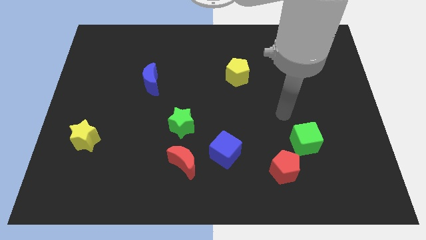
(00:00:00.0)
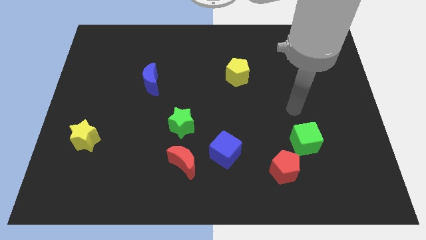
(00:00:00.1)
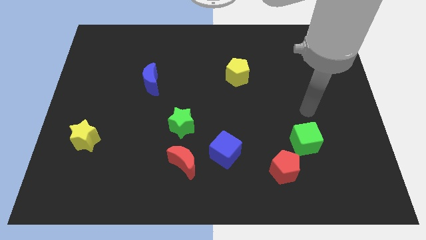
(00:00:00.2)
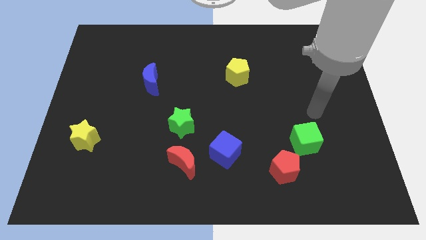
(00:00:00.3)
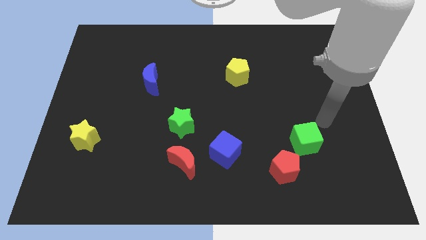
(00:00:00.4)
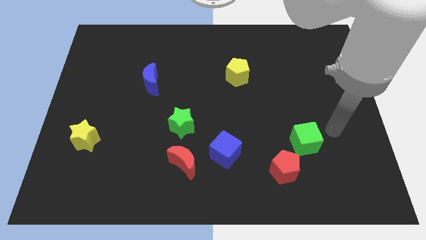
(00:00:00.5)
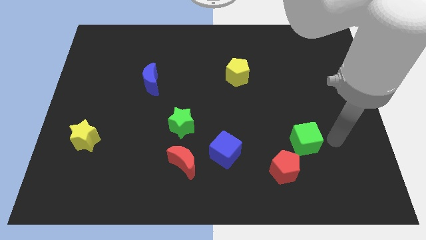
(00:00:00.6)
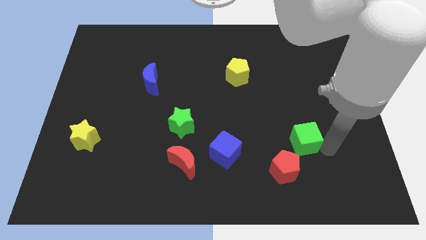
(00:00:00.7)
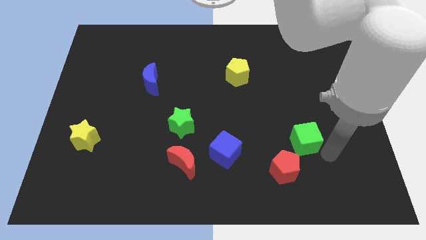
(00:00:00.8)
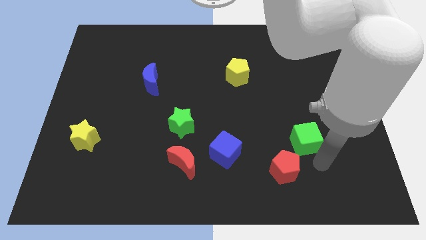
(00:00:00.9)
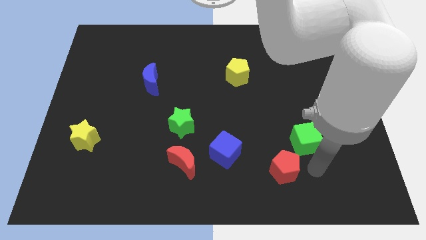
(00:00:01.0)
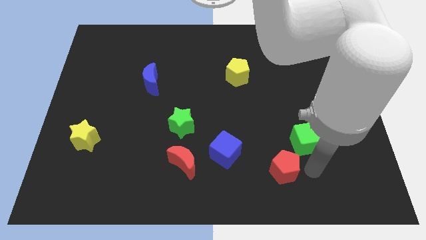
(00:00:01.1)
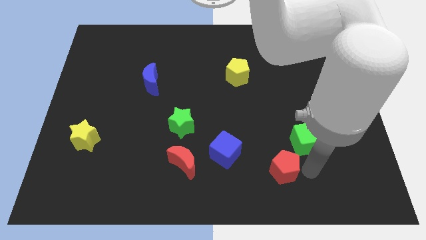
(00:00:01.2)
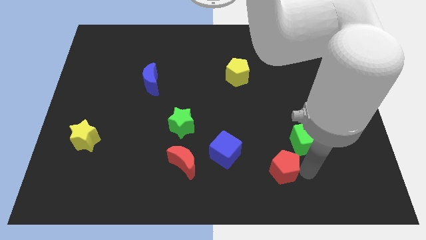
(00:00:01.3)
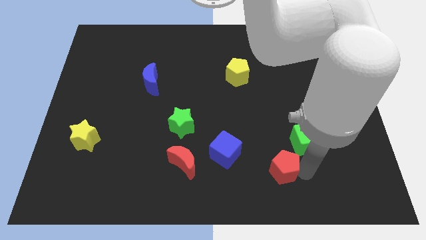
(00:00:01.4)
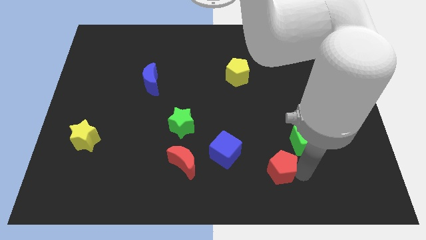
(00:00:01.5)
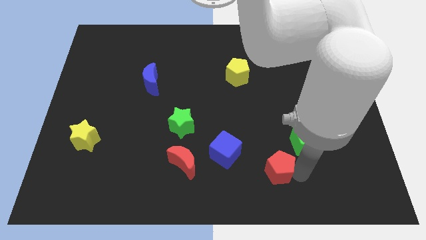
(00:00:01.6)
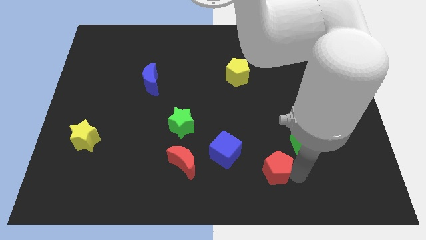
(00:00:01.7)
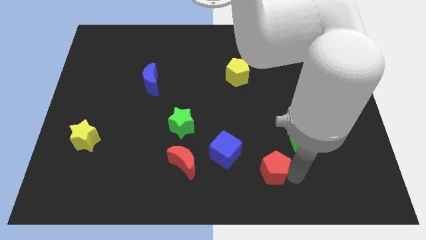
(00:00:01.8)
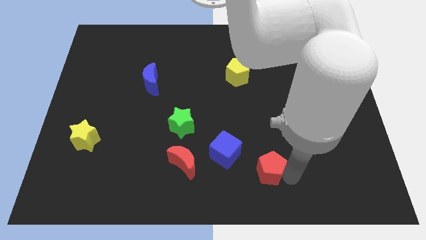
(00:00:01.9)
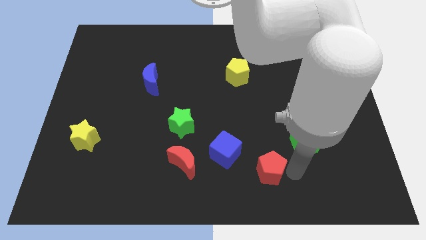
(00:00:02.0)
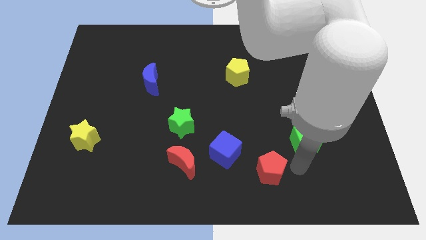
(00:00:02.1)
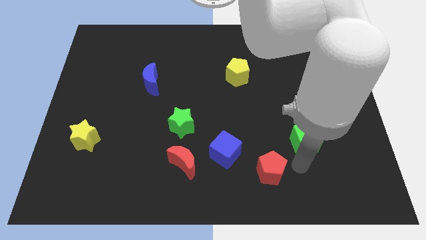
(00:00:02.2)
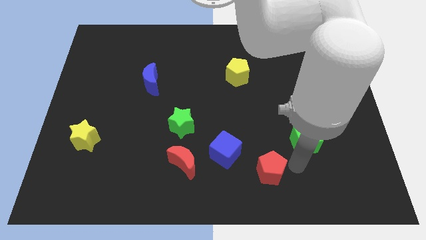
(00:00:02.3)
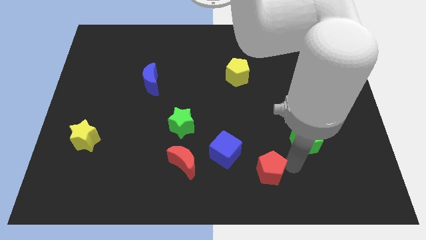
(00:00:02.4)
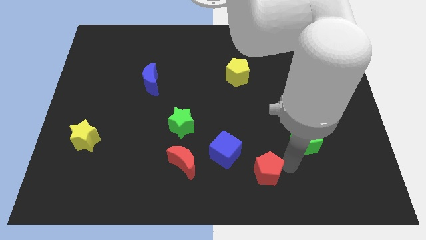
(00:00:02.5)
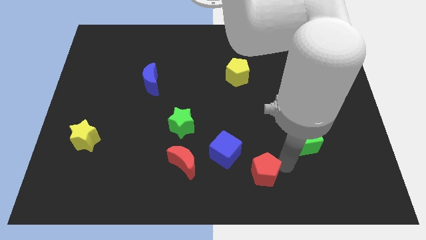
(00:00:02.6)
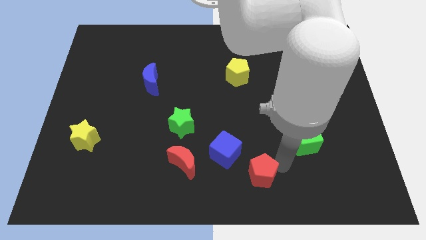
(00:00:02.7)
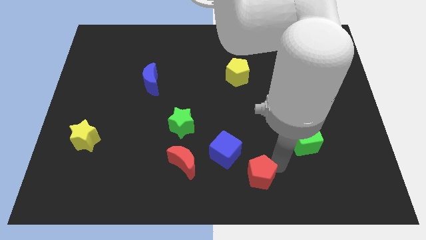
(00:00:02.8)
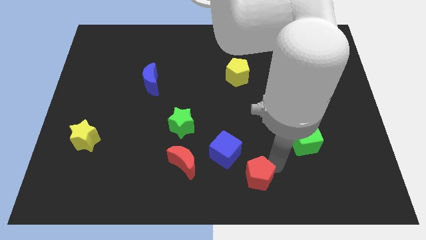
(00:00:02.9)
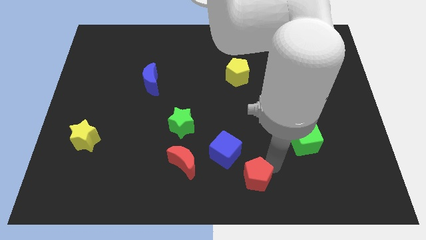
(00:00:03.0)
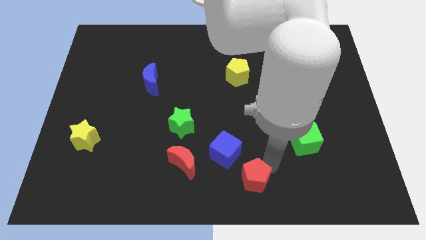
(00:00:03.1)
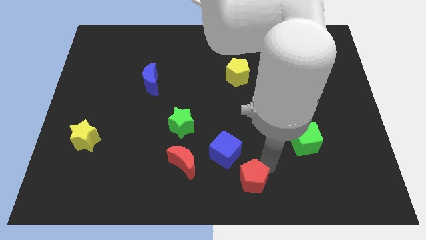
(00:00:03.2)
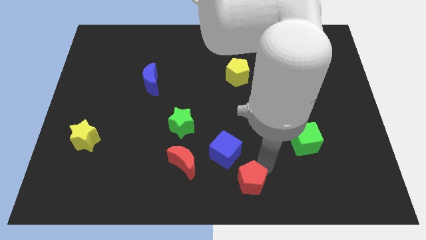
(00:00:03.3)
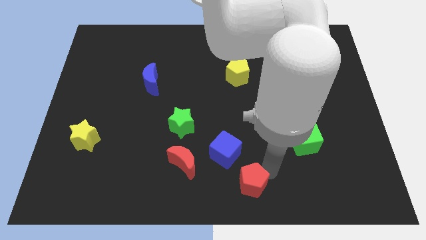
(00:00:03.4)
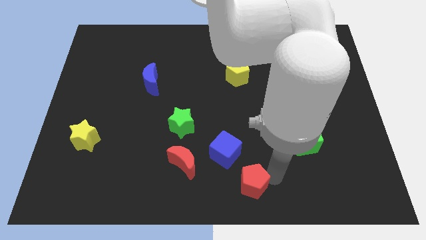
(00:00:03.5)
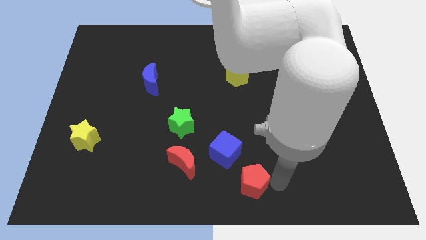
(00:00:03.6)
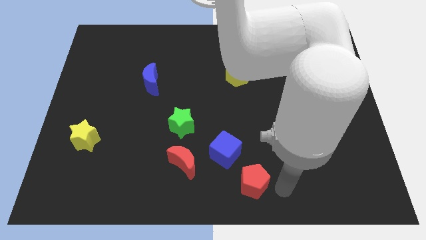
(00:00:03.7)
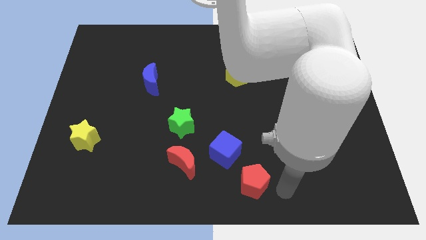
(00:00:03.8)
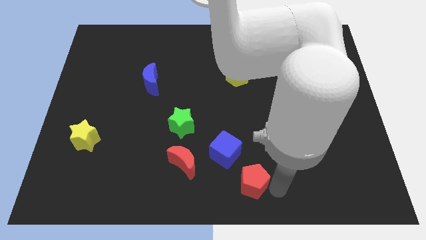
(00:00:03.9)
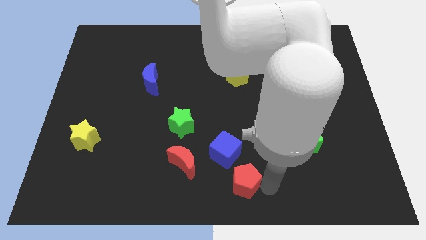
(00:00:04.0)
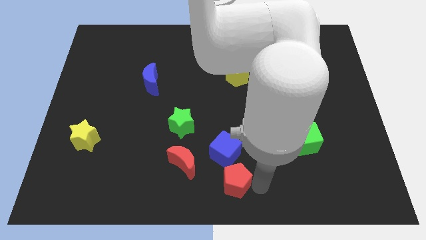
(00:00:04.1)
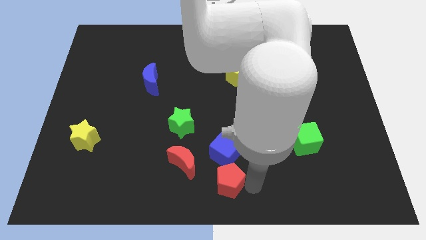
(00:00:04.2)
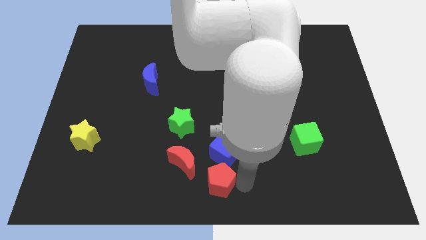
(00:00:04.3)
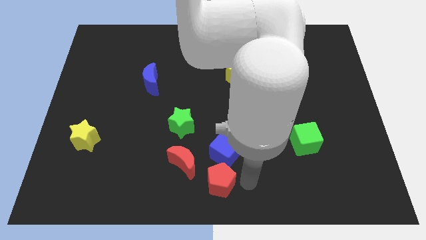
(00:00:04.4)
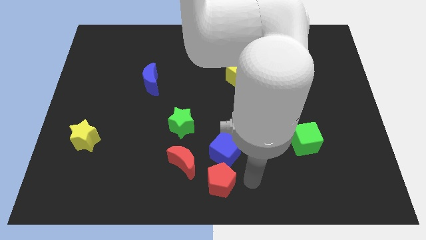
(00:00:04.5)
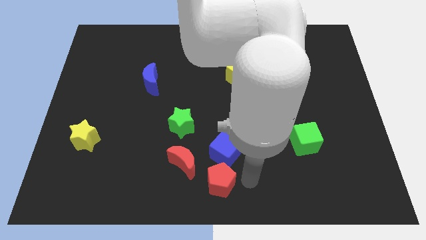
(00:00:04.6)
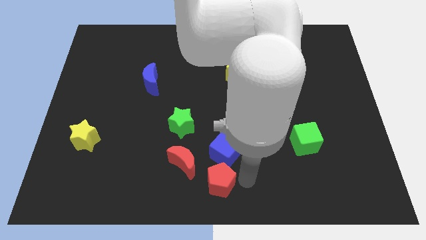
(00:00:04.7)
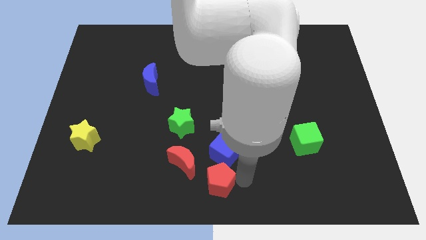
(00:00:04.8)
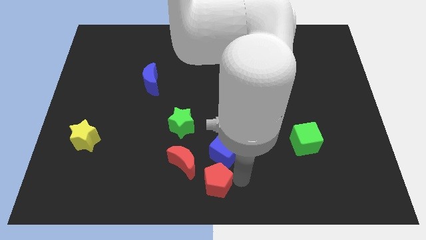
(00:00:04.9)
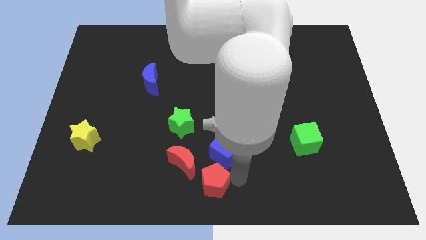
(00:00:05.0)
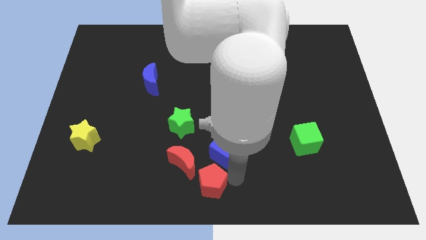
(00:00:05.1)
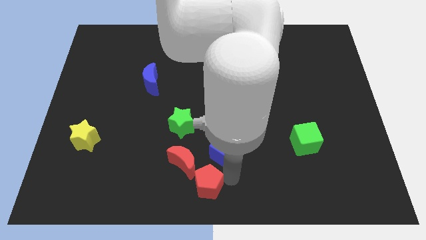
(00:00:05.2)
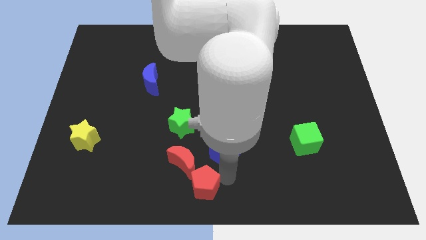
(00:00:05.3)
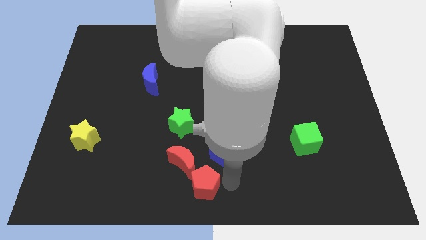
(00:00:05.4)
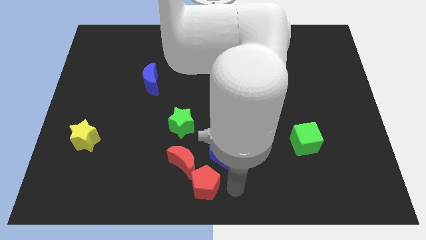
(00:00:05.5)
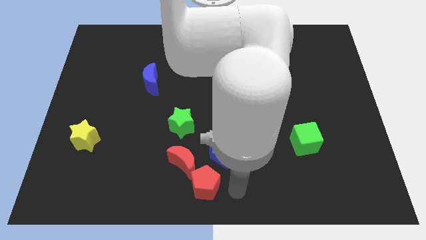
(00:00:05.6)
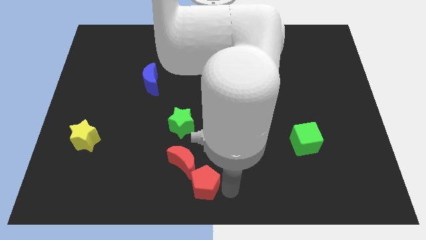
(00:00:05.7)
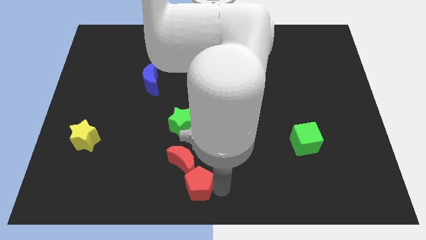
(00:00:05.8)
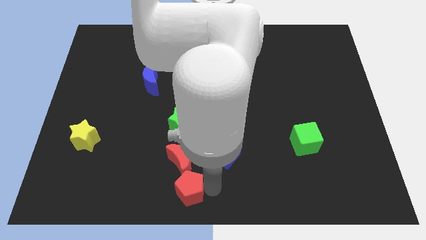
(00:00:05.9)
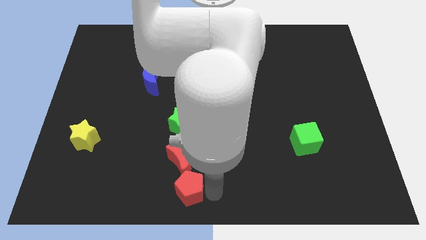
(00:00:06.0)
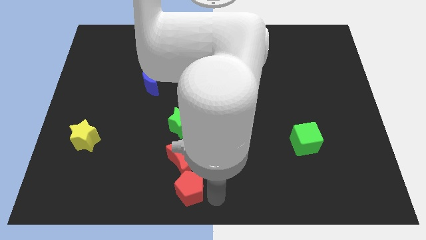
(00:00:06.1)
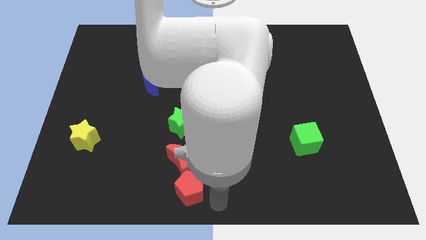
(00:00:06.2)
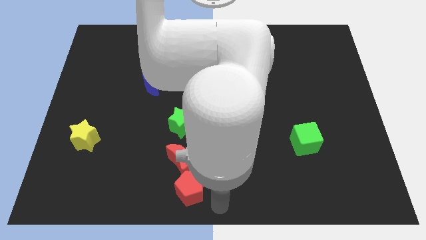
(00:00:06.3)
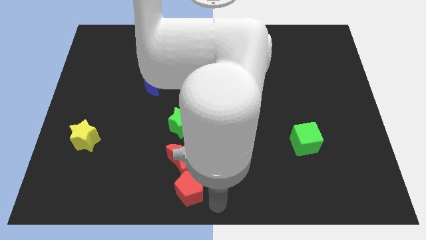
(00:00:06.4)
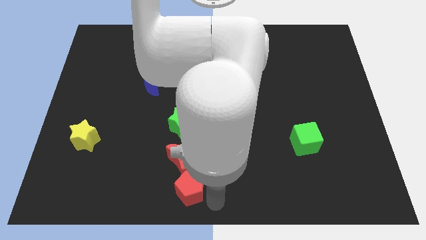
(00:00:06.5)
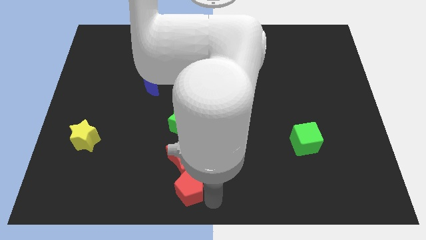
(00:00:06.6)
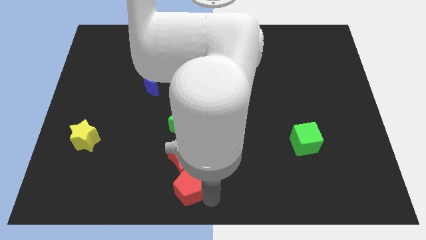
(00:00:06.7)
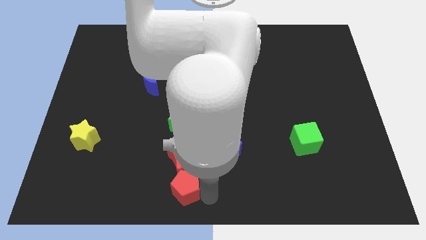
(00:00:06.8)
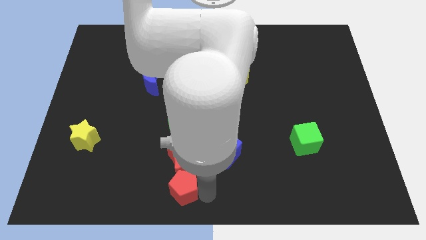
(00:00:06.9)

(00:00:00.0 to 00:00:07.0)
push the red pentagon left

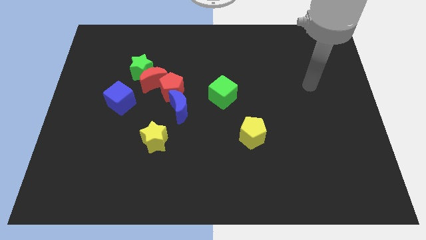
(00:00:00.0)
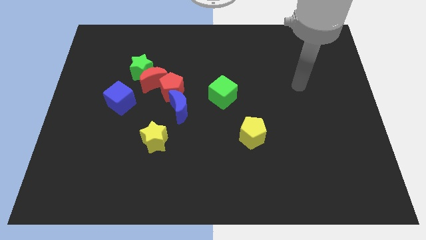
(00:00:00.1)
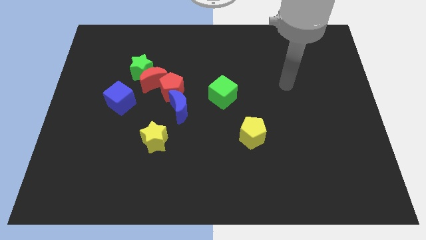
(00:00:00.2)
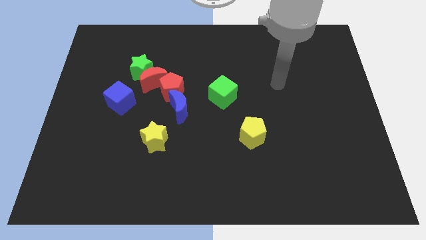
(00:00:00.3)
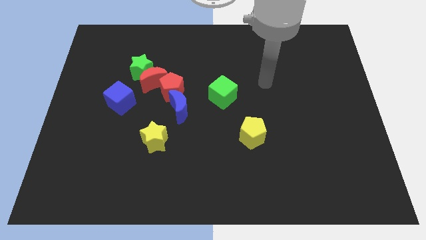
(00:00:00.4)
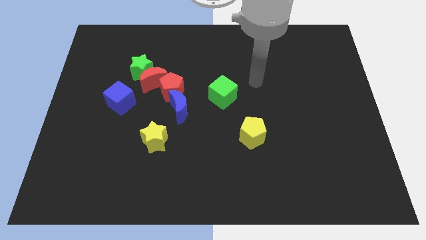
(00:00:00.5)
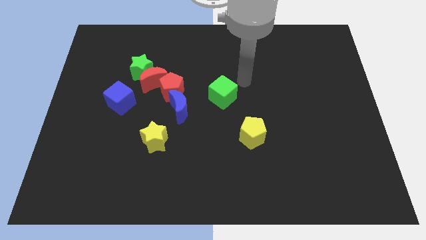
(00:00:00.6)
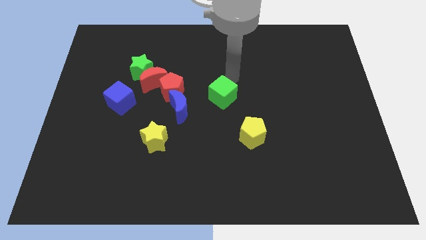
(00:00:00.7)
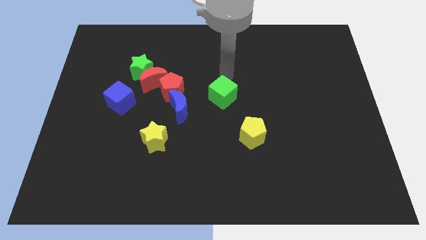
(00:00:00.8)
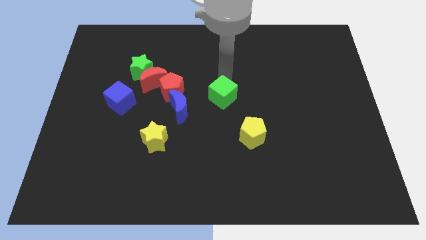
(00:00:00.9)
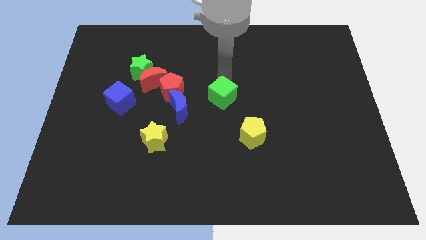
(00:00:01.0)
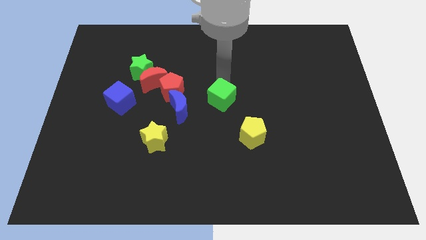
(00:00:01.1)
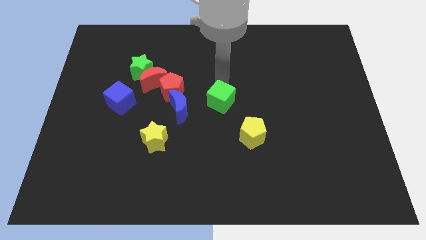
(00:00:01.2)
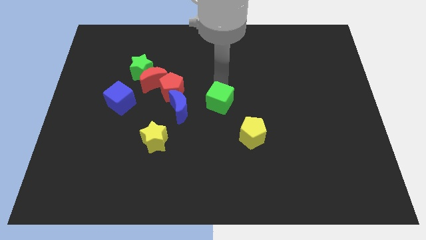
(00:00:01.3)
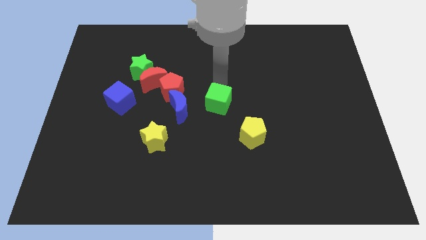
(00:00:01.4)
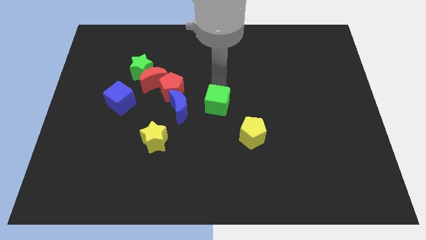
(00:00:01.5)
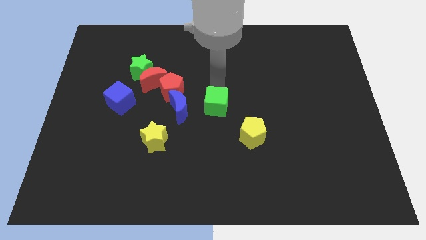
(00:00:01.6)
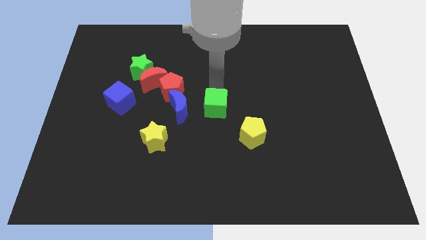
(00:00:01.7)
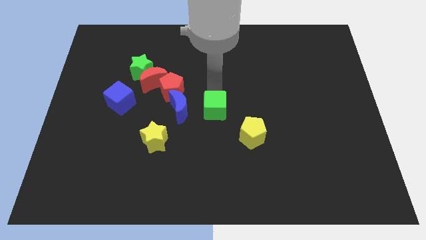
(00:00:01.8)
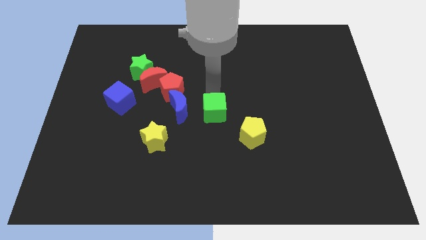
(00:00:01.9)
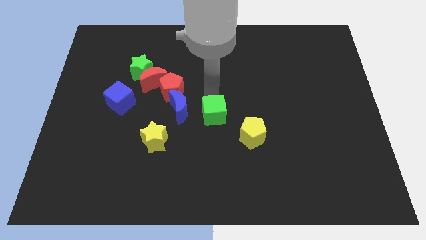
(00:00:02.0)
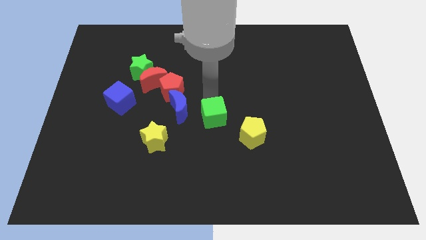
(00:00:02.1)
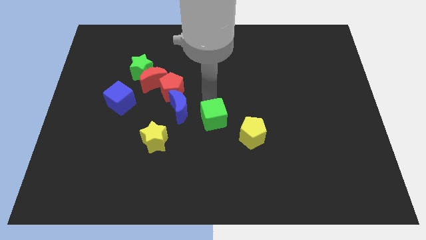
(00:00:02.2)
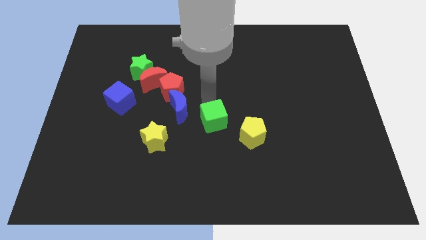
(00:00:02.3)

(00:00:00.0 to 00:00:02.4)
slide the green cube downwards a little bit
